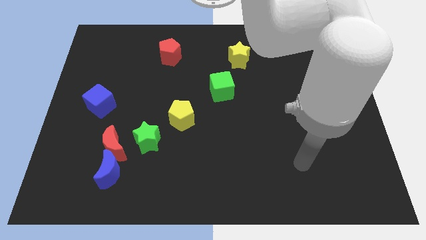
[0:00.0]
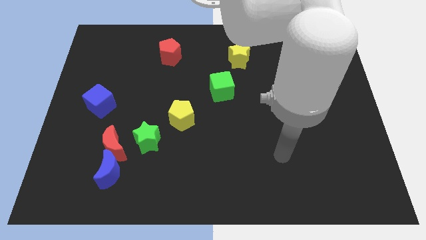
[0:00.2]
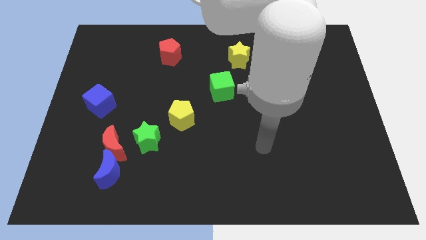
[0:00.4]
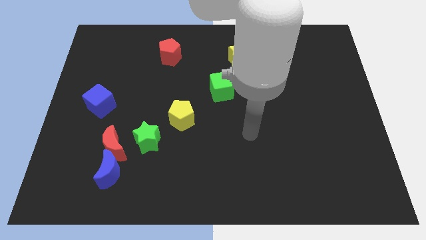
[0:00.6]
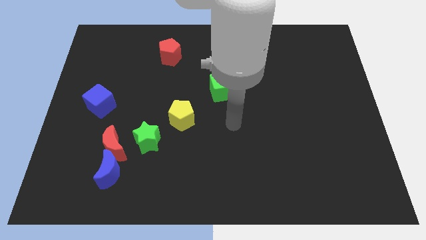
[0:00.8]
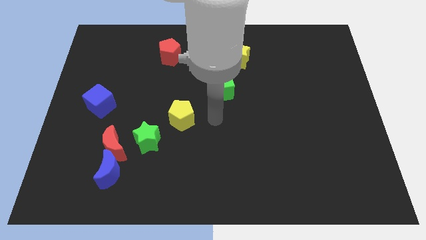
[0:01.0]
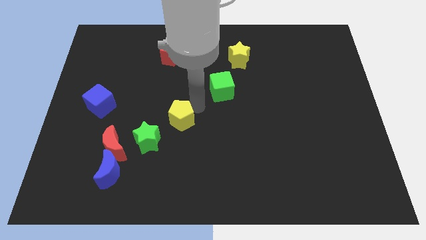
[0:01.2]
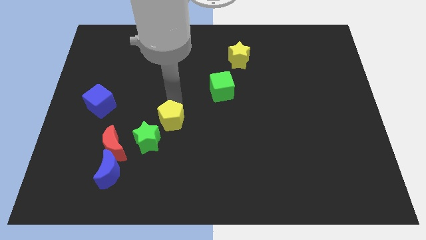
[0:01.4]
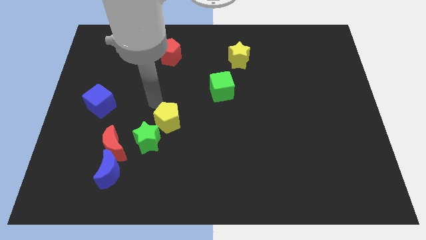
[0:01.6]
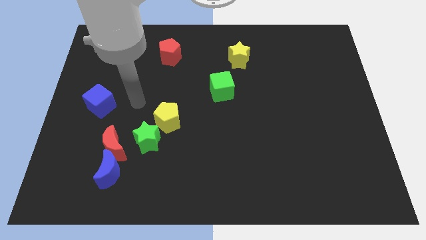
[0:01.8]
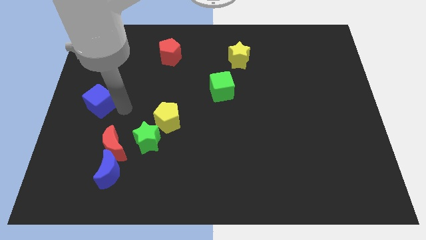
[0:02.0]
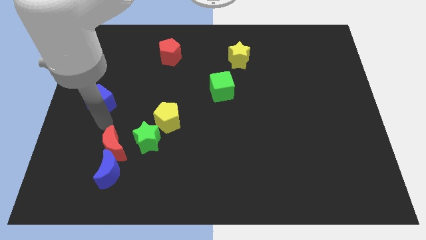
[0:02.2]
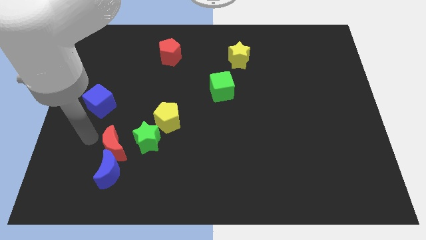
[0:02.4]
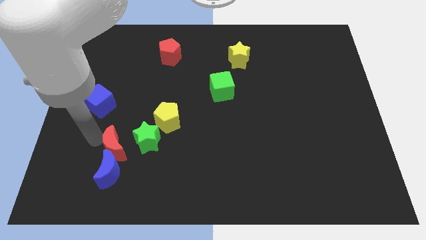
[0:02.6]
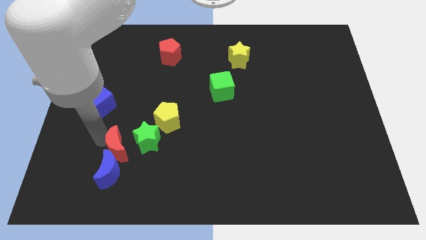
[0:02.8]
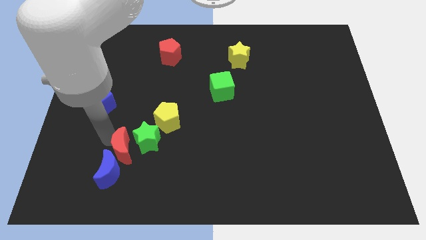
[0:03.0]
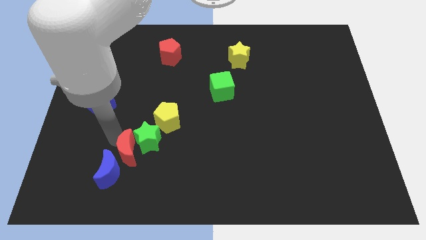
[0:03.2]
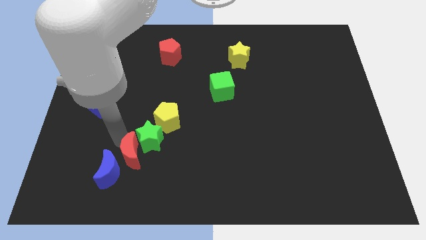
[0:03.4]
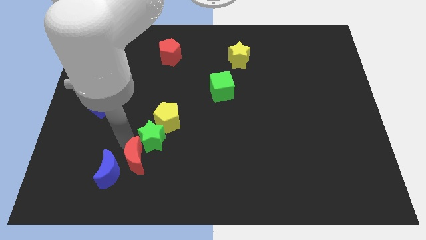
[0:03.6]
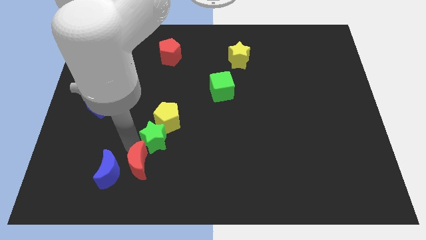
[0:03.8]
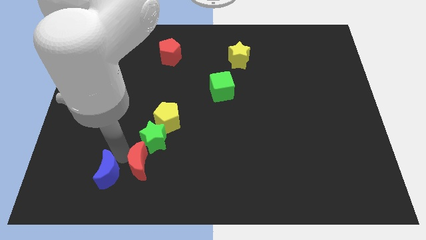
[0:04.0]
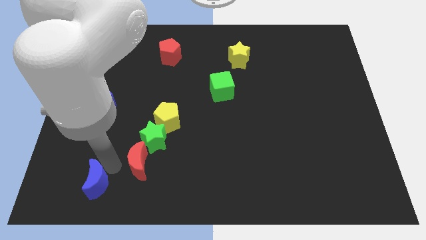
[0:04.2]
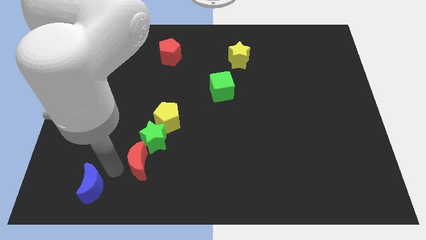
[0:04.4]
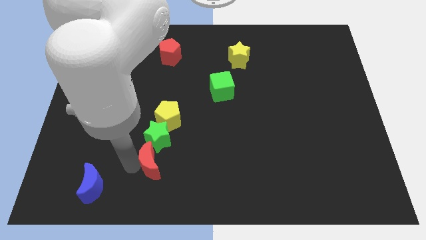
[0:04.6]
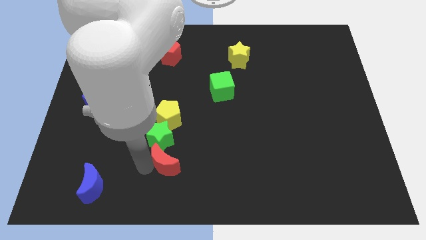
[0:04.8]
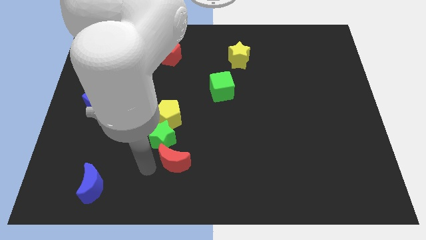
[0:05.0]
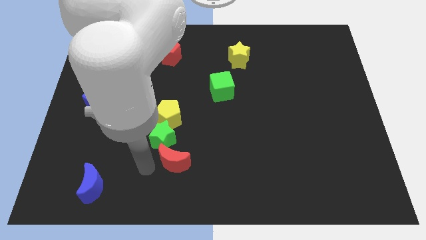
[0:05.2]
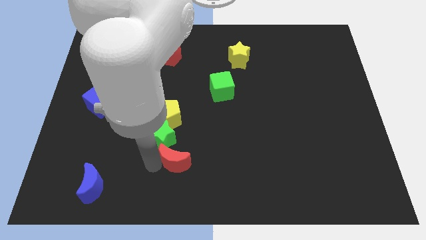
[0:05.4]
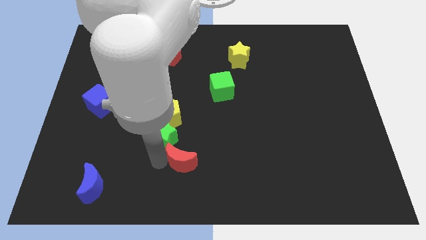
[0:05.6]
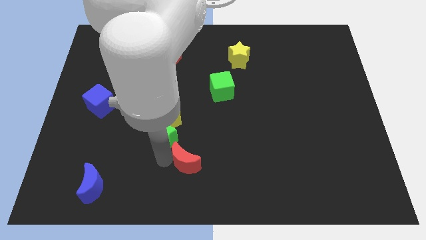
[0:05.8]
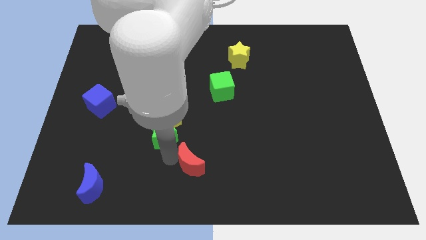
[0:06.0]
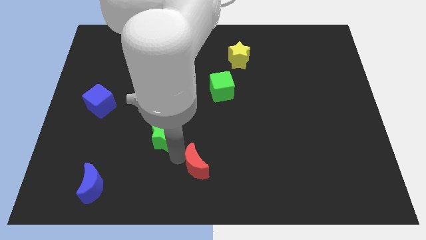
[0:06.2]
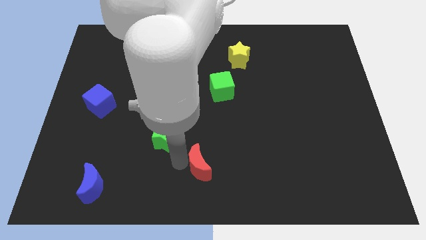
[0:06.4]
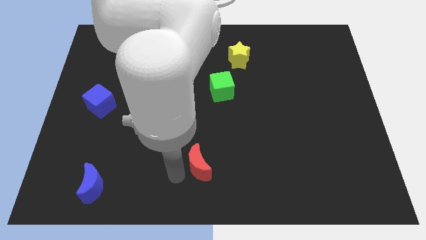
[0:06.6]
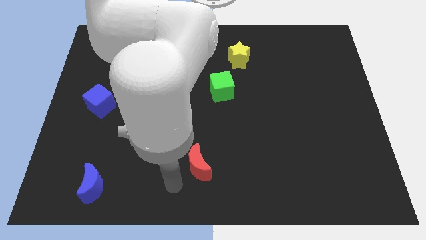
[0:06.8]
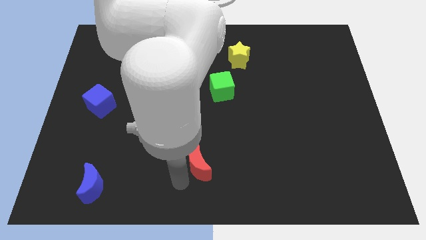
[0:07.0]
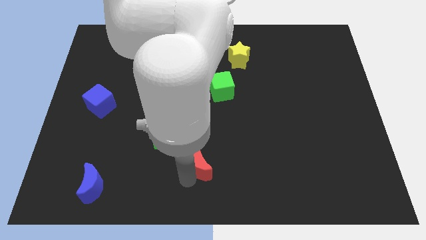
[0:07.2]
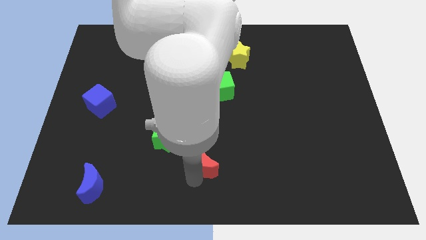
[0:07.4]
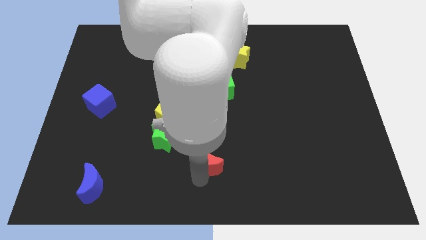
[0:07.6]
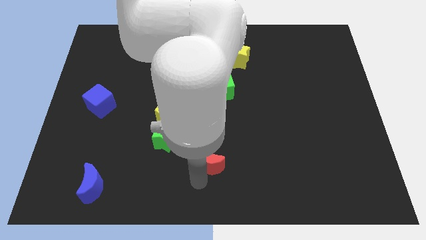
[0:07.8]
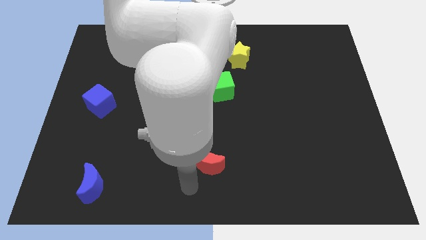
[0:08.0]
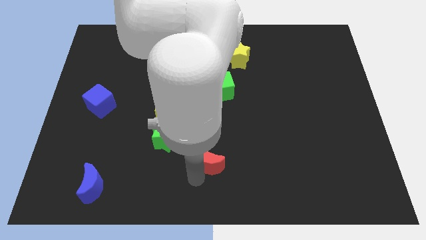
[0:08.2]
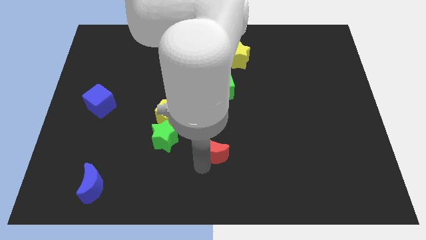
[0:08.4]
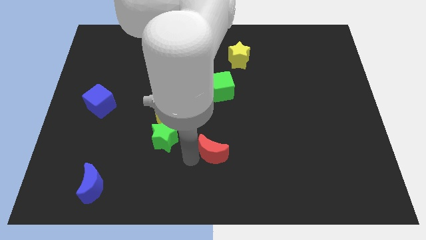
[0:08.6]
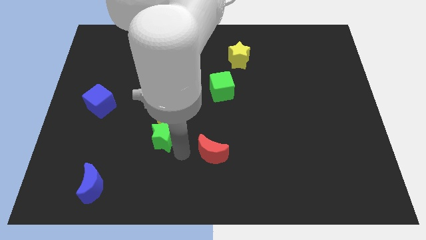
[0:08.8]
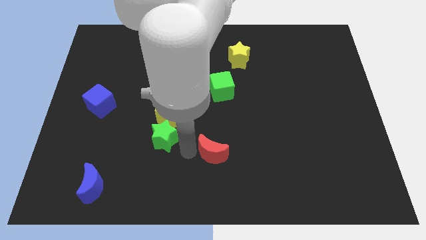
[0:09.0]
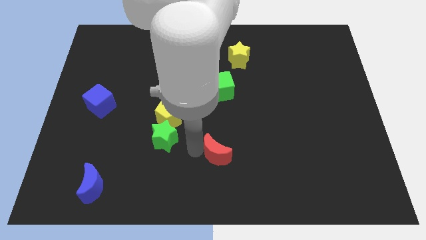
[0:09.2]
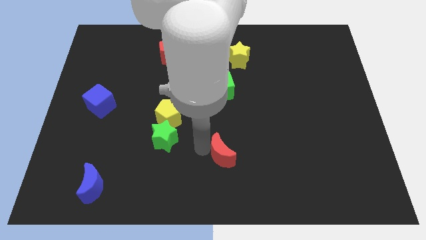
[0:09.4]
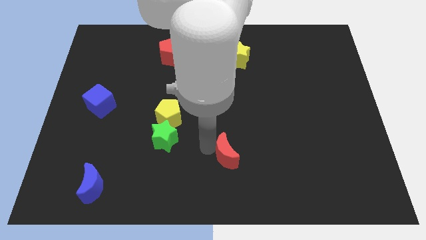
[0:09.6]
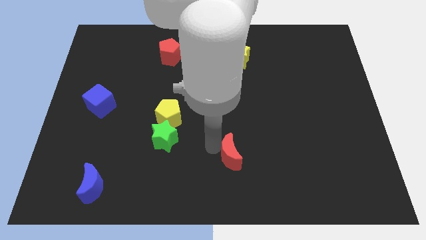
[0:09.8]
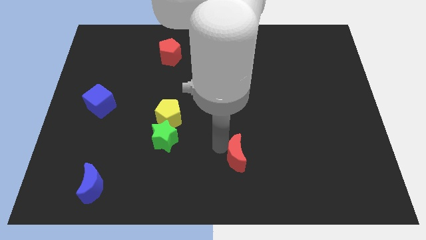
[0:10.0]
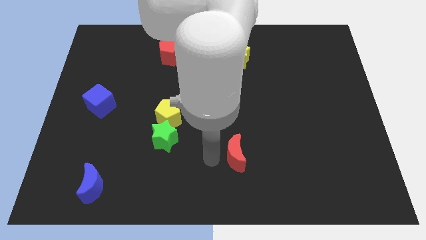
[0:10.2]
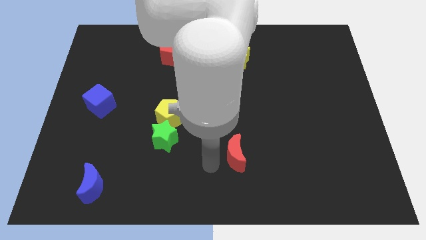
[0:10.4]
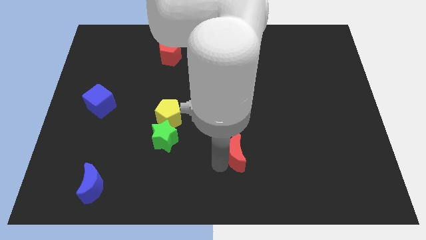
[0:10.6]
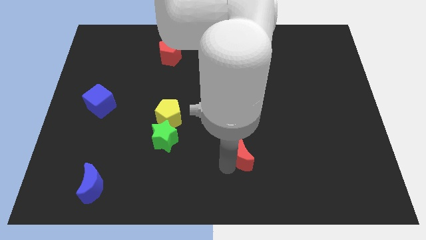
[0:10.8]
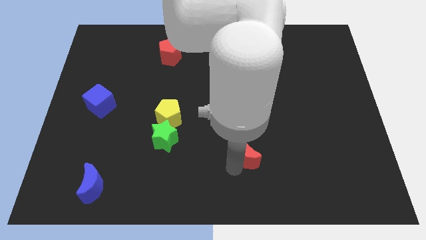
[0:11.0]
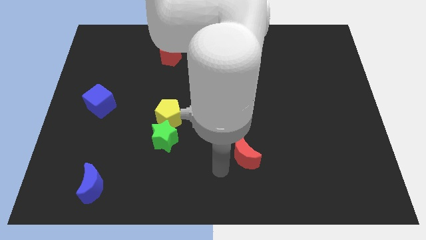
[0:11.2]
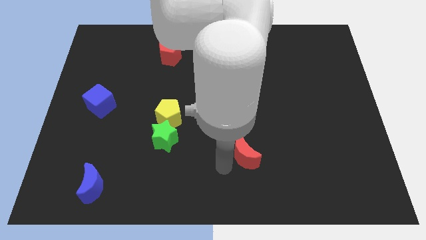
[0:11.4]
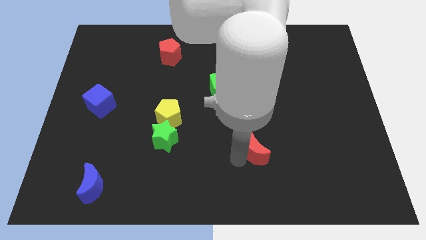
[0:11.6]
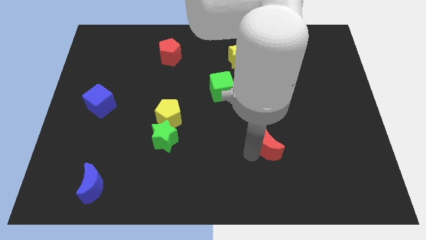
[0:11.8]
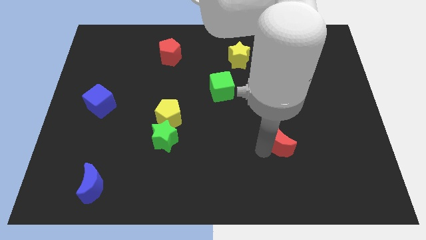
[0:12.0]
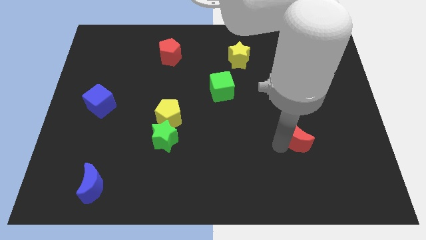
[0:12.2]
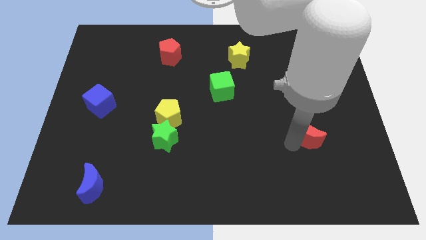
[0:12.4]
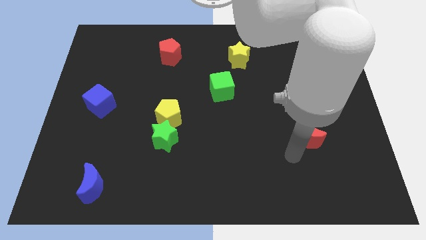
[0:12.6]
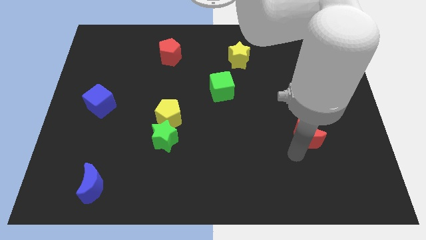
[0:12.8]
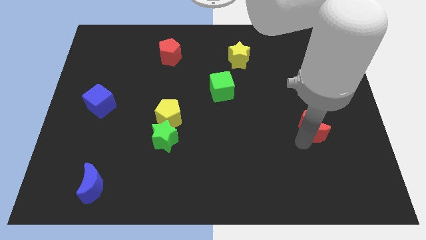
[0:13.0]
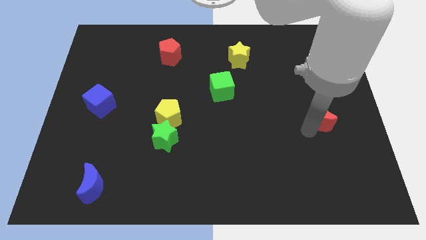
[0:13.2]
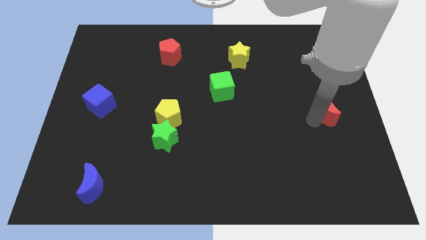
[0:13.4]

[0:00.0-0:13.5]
push the red moon to the center right
